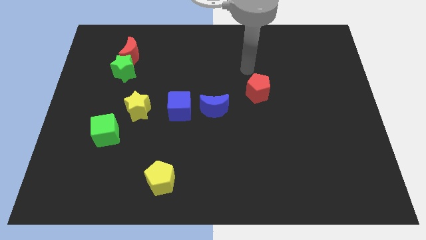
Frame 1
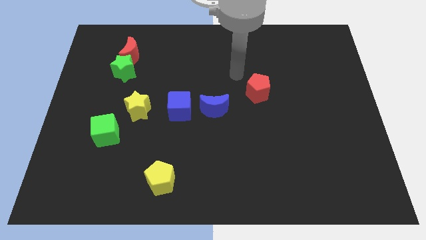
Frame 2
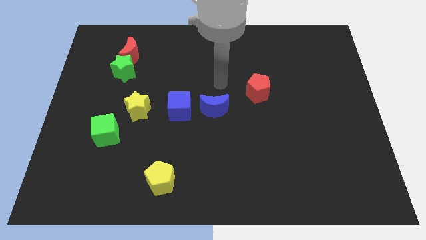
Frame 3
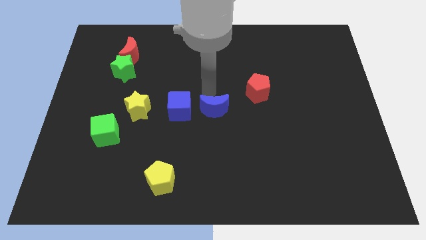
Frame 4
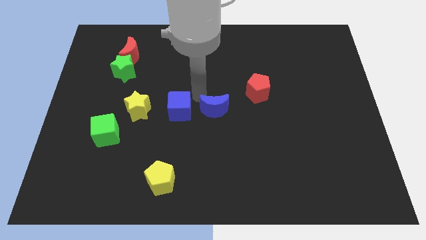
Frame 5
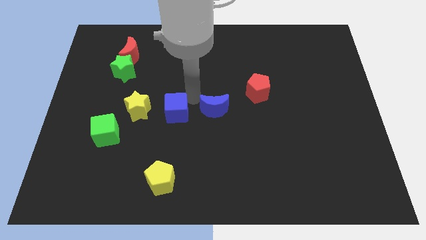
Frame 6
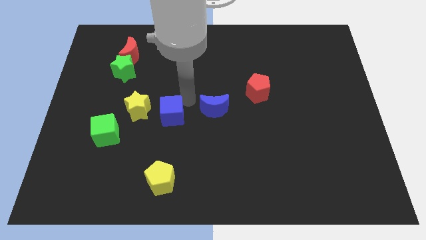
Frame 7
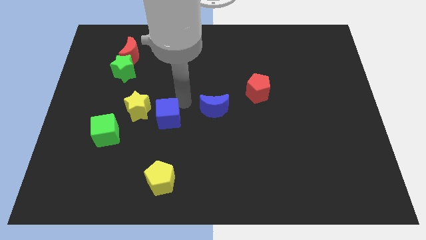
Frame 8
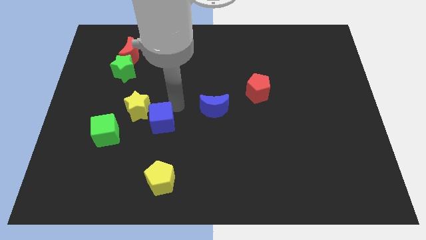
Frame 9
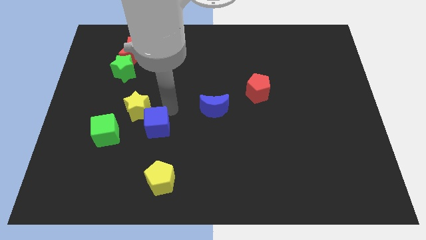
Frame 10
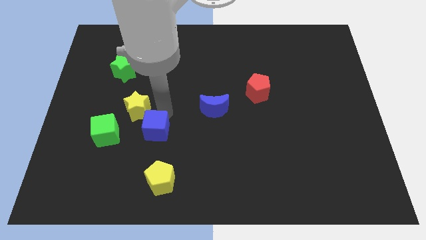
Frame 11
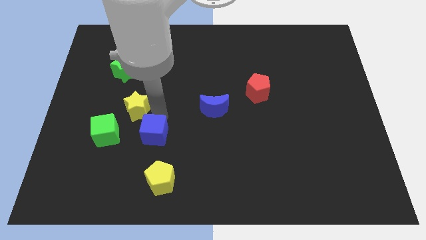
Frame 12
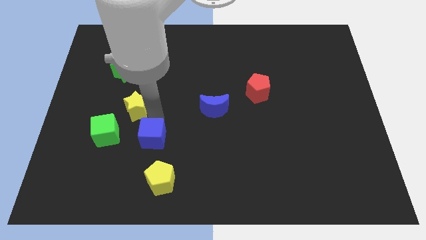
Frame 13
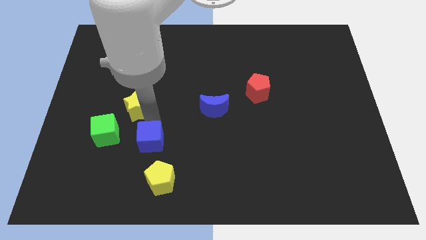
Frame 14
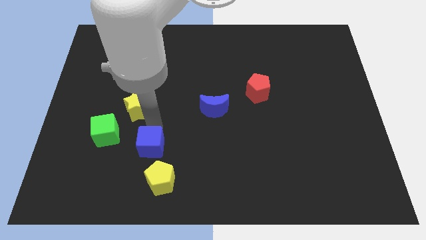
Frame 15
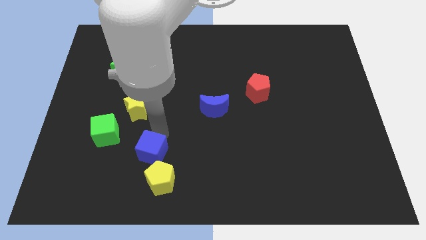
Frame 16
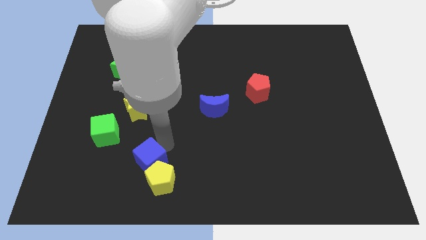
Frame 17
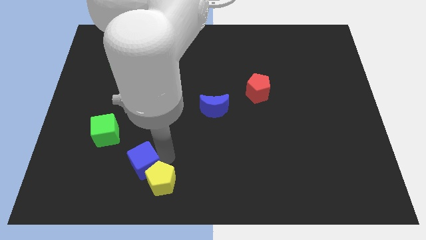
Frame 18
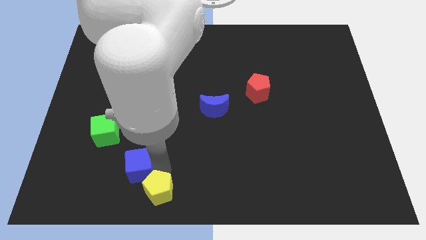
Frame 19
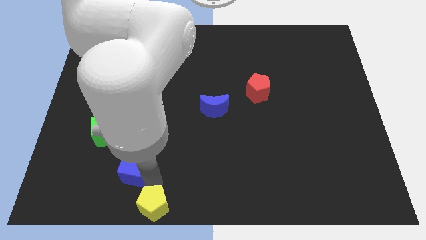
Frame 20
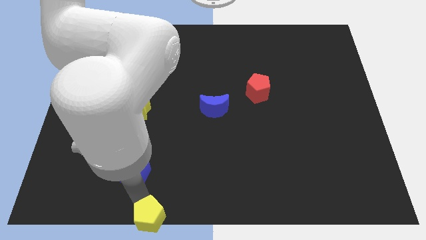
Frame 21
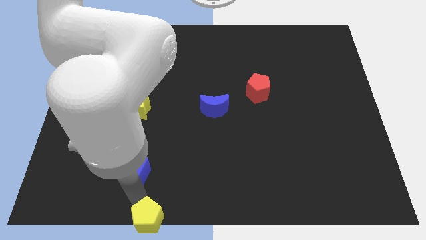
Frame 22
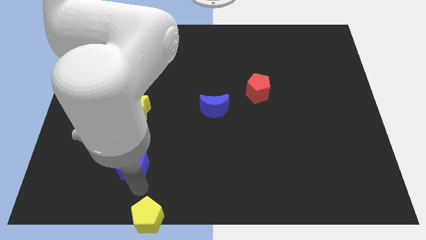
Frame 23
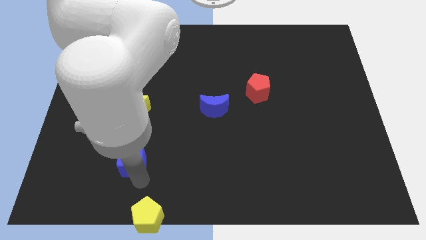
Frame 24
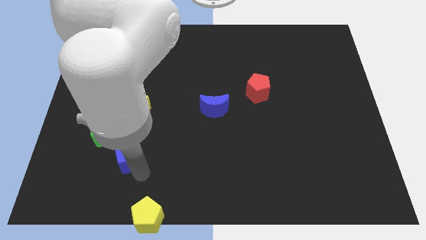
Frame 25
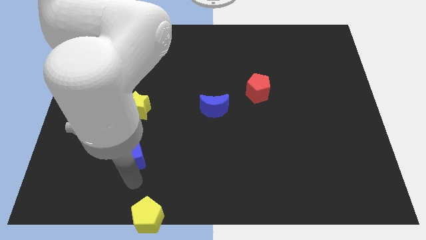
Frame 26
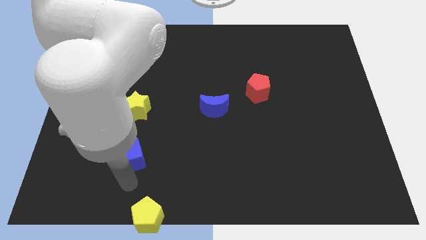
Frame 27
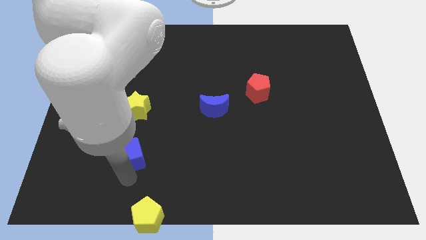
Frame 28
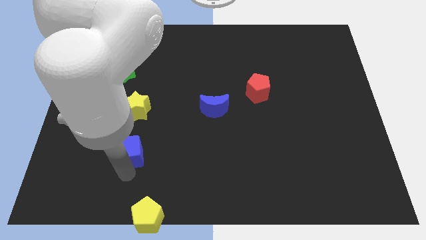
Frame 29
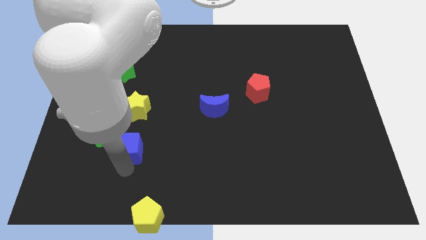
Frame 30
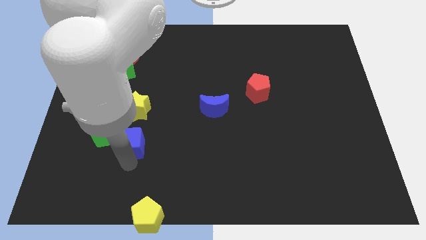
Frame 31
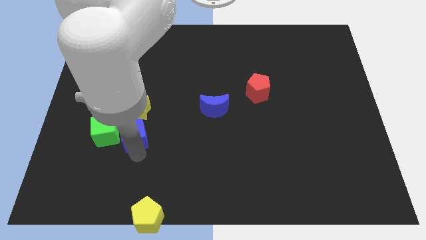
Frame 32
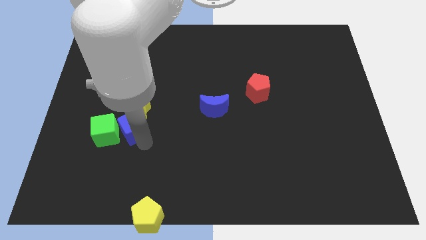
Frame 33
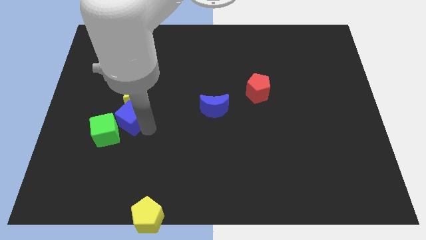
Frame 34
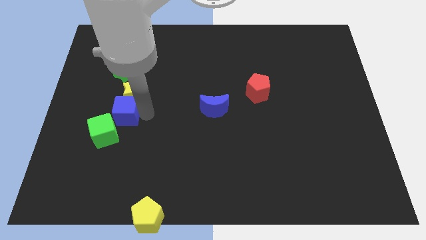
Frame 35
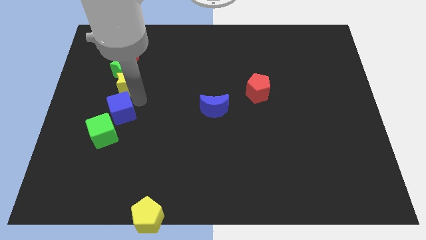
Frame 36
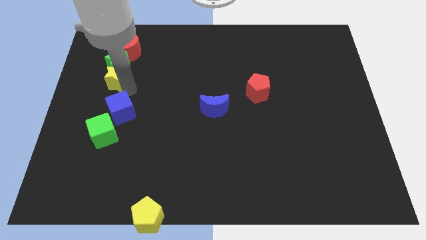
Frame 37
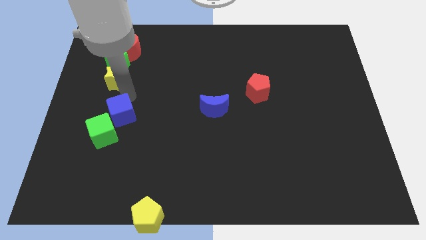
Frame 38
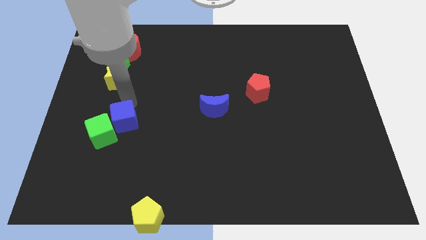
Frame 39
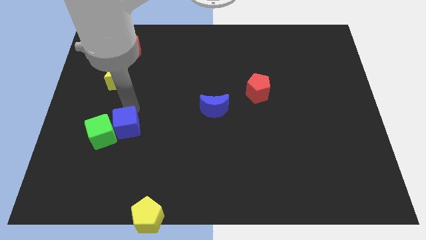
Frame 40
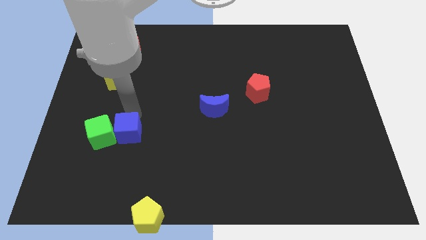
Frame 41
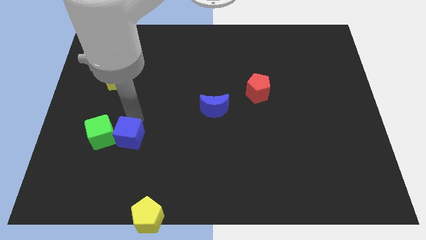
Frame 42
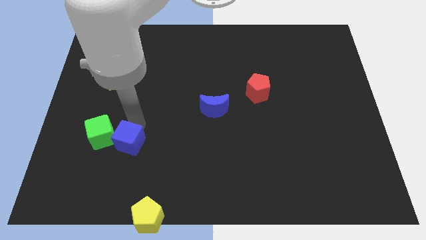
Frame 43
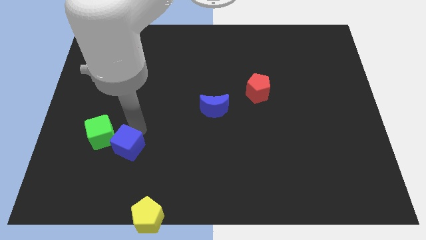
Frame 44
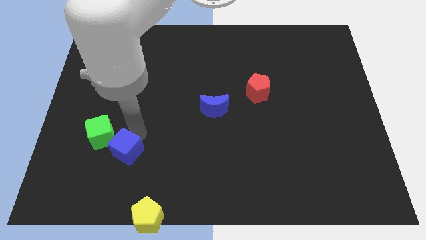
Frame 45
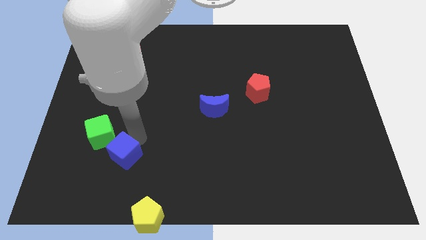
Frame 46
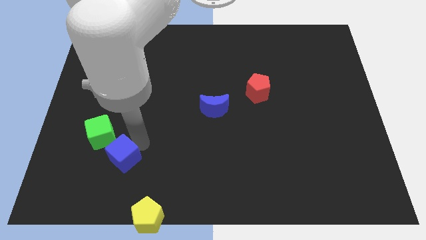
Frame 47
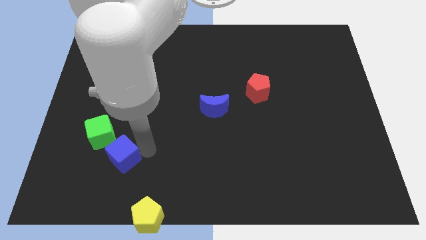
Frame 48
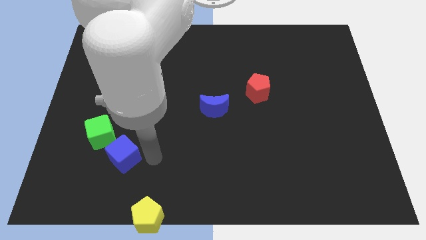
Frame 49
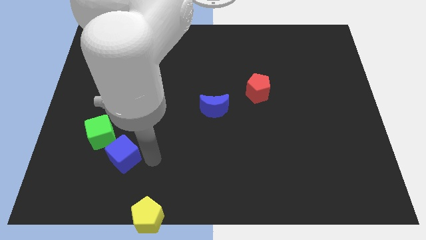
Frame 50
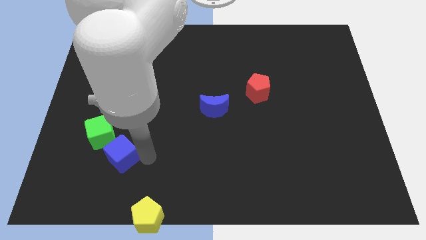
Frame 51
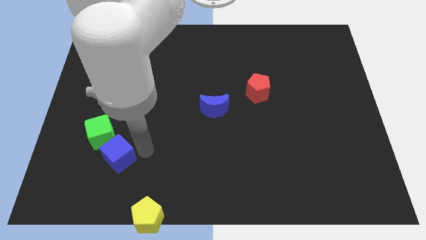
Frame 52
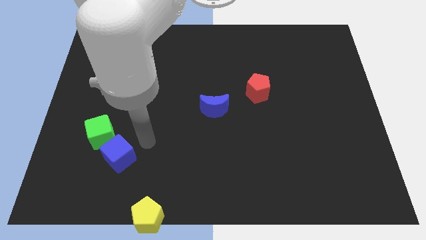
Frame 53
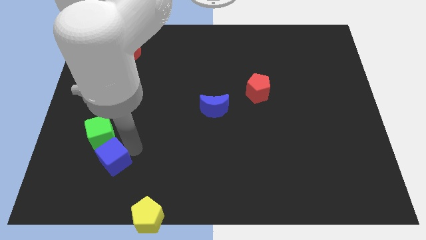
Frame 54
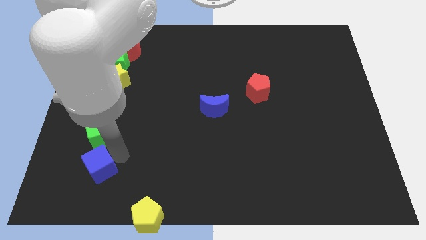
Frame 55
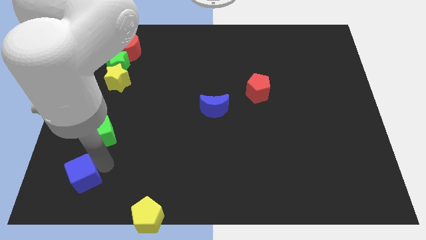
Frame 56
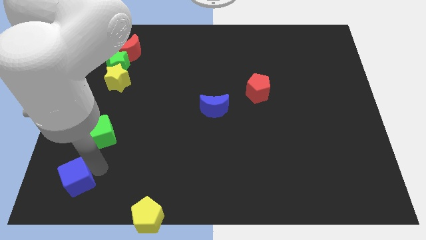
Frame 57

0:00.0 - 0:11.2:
push the blue cube to the bottom left of the board

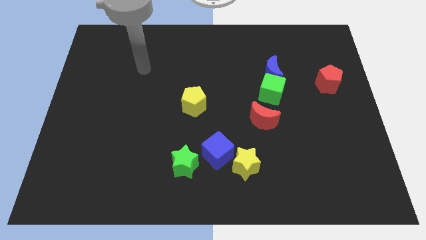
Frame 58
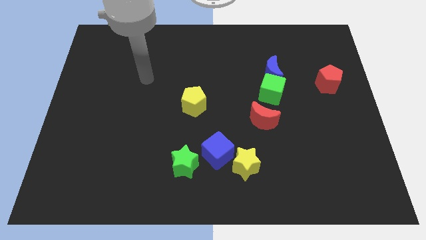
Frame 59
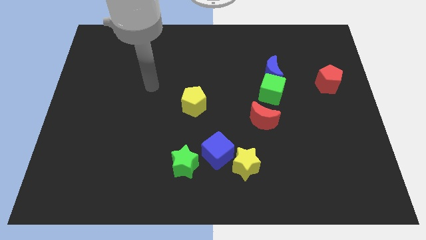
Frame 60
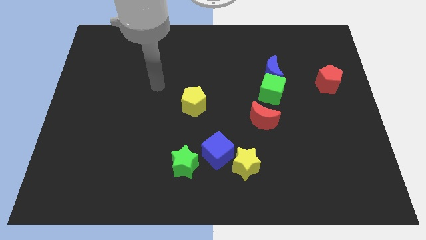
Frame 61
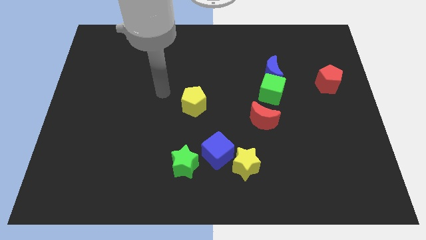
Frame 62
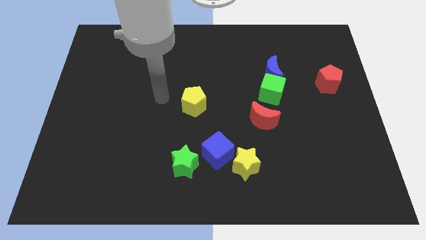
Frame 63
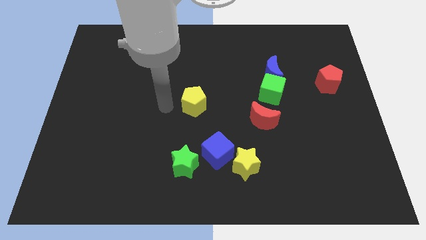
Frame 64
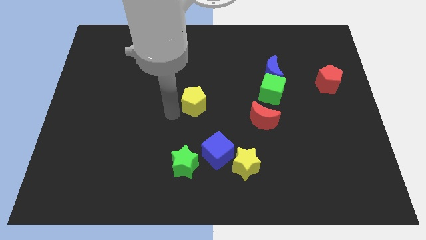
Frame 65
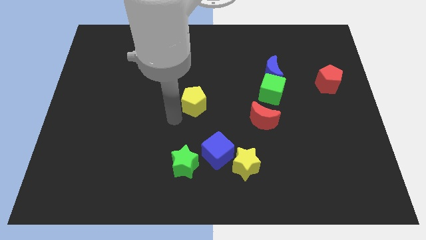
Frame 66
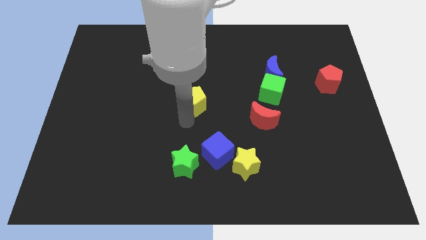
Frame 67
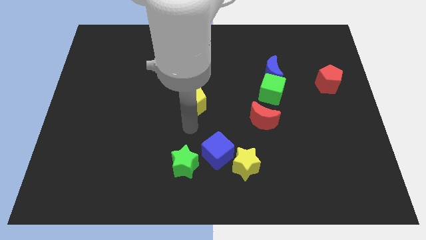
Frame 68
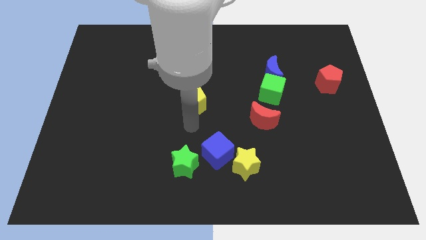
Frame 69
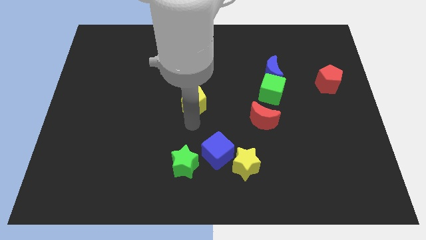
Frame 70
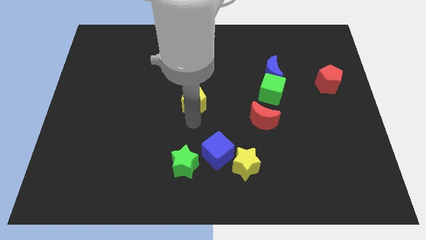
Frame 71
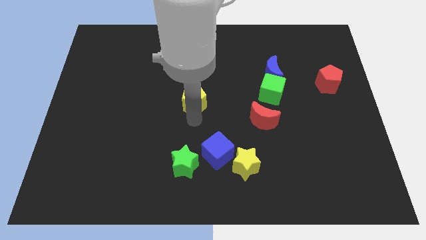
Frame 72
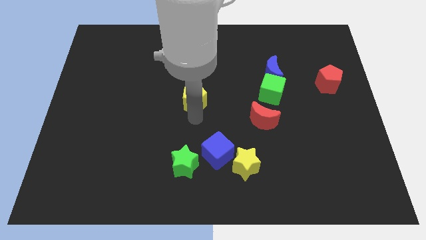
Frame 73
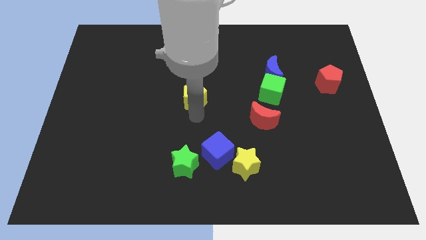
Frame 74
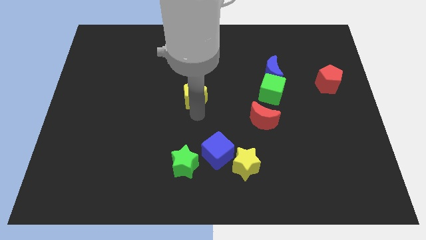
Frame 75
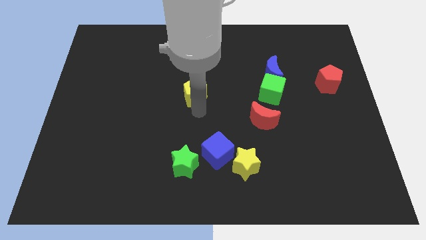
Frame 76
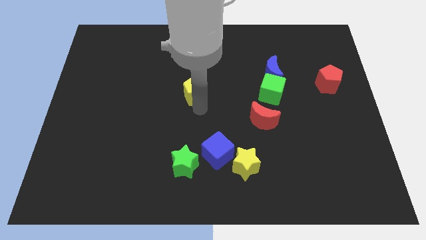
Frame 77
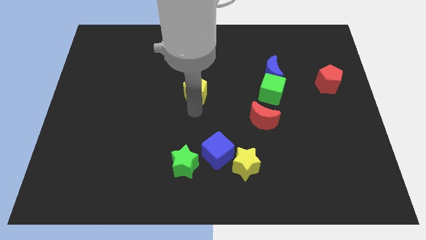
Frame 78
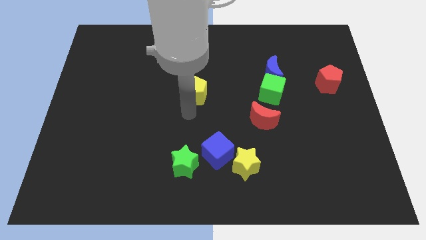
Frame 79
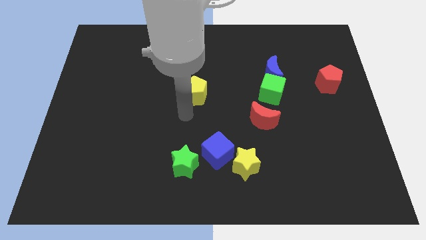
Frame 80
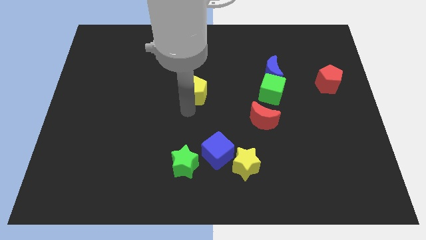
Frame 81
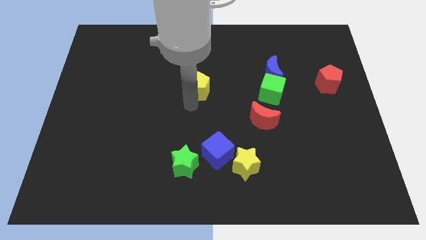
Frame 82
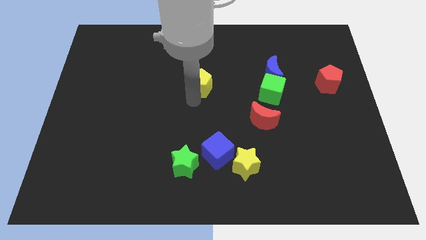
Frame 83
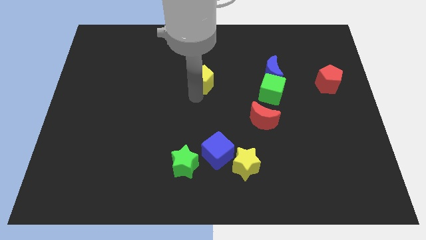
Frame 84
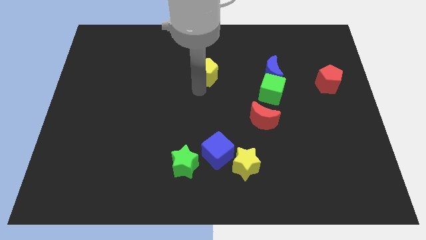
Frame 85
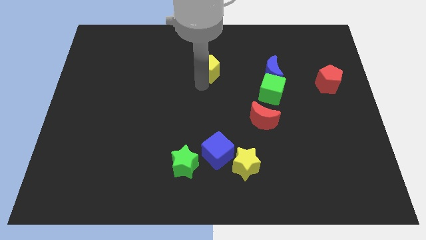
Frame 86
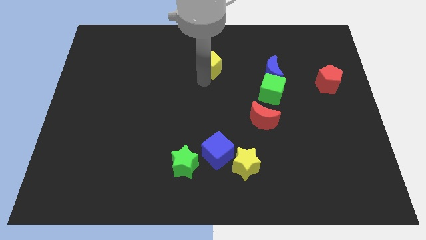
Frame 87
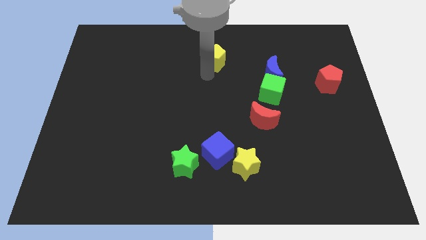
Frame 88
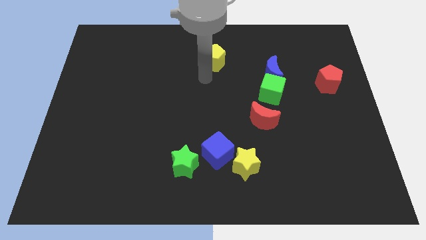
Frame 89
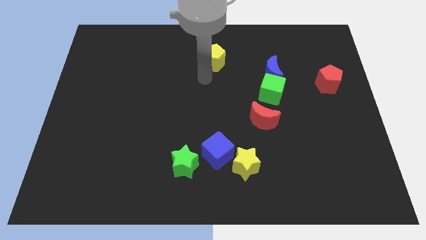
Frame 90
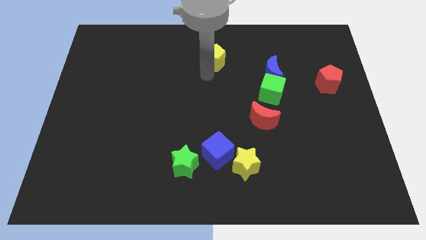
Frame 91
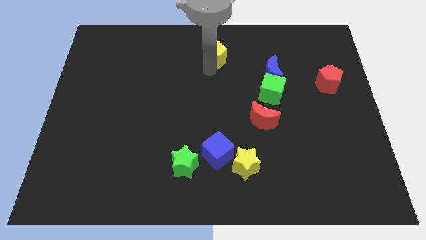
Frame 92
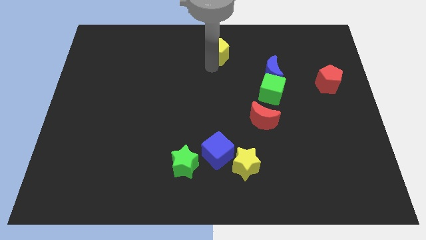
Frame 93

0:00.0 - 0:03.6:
put the yellow pentagon to the top
